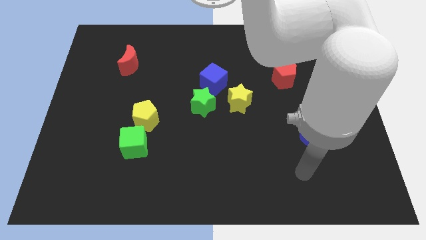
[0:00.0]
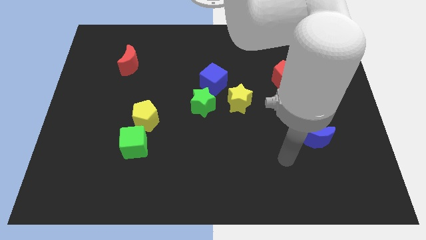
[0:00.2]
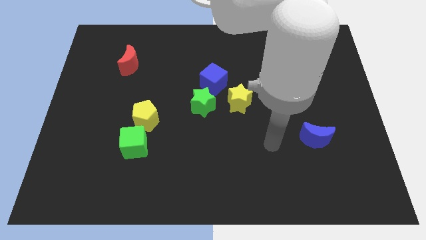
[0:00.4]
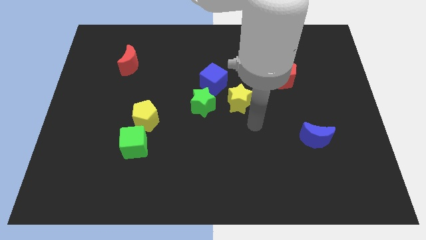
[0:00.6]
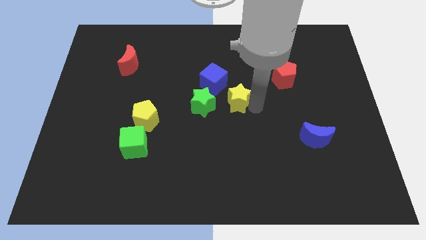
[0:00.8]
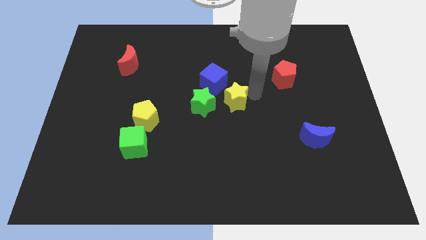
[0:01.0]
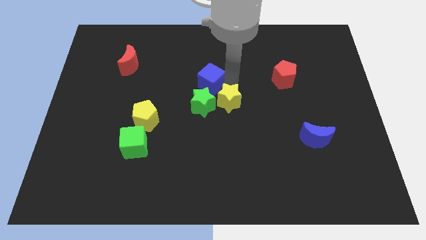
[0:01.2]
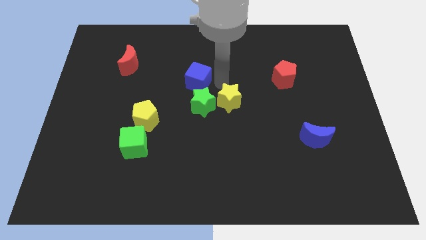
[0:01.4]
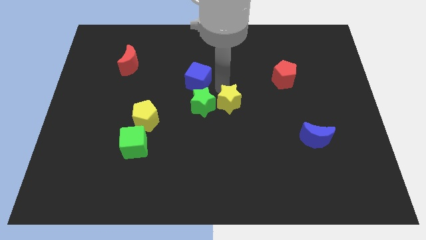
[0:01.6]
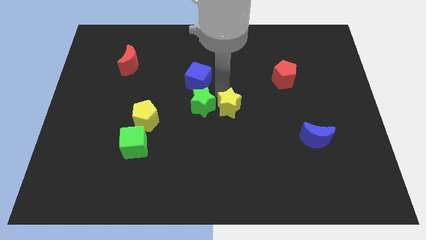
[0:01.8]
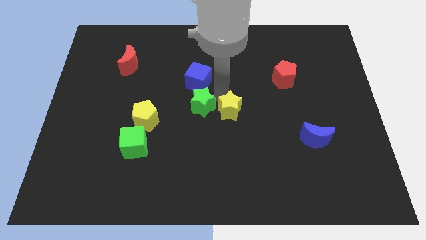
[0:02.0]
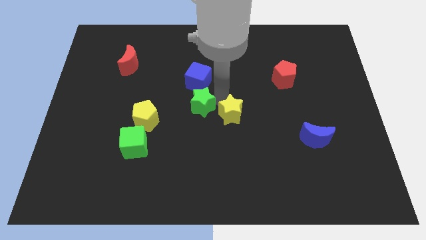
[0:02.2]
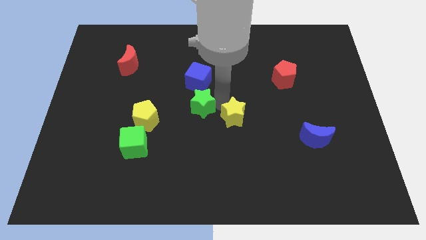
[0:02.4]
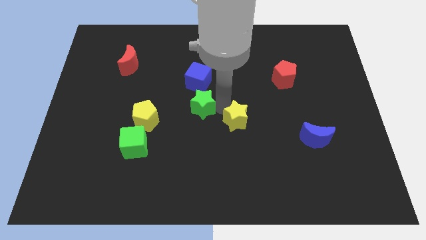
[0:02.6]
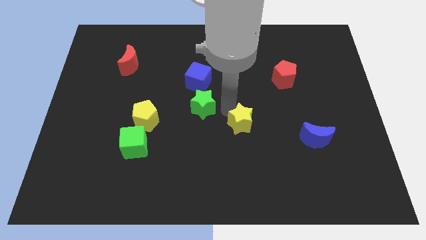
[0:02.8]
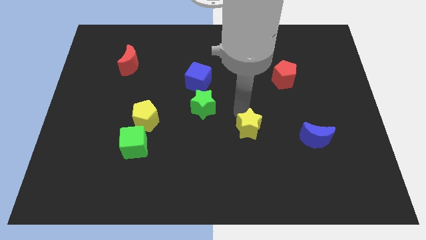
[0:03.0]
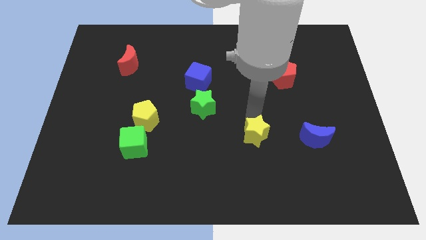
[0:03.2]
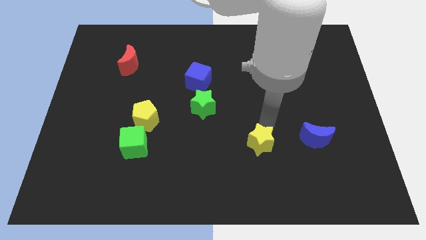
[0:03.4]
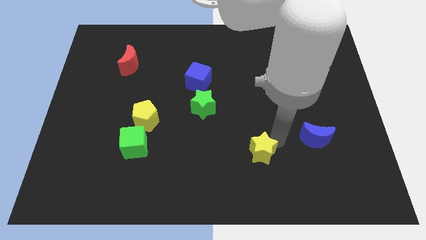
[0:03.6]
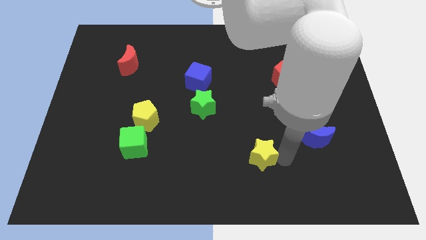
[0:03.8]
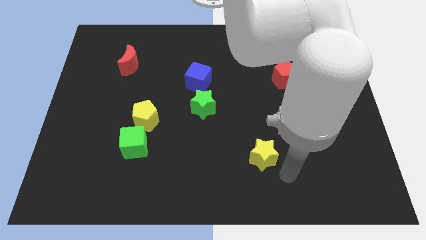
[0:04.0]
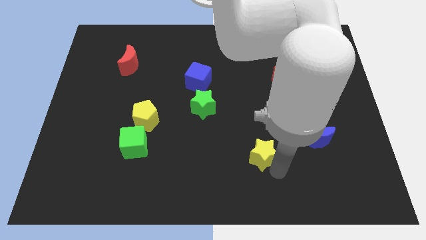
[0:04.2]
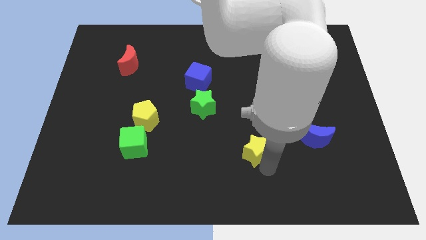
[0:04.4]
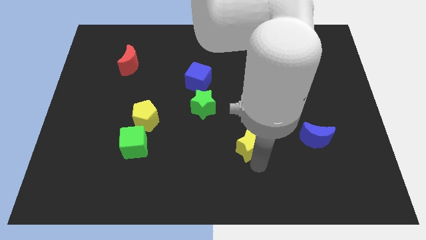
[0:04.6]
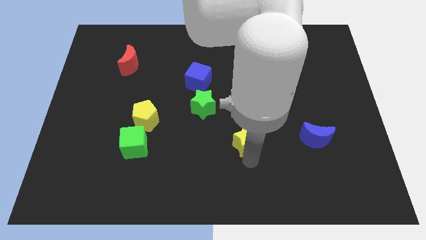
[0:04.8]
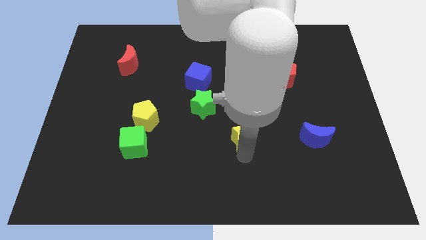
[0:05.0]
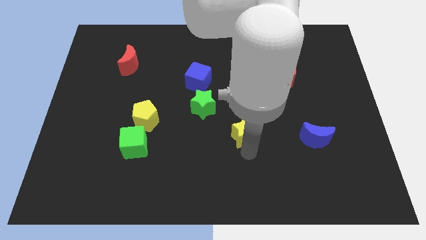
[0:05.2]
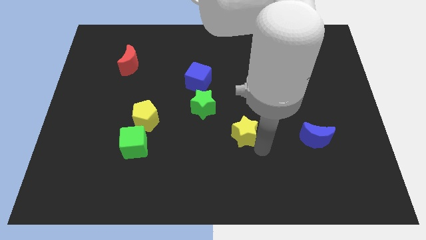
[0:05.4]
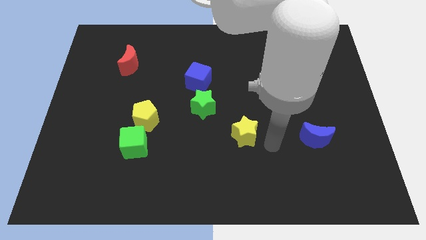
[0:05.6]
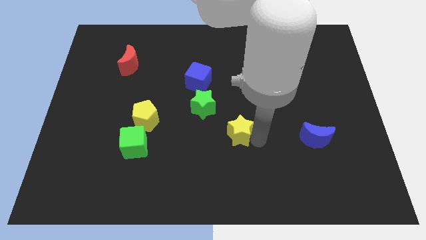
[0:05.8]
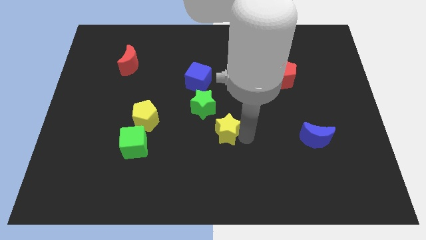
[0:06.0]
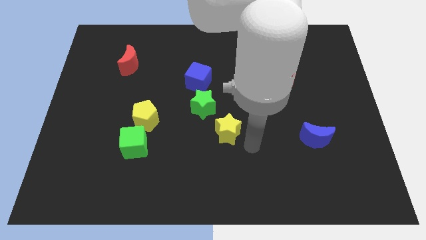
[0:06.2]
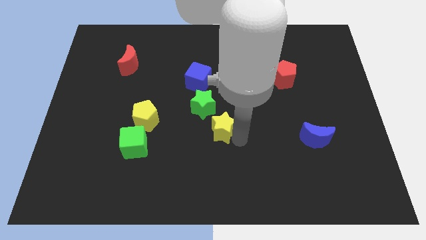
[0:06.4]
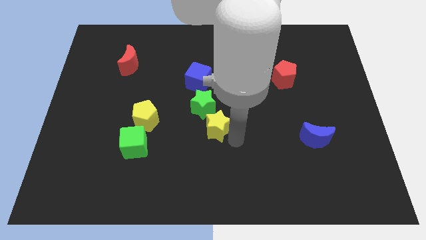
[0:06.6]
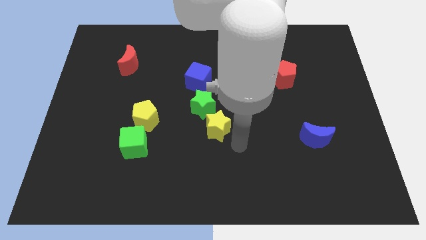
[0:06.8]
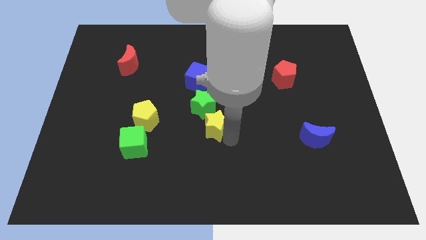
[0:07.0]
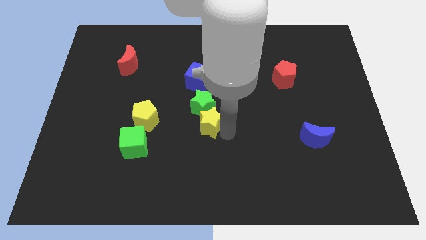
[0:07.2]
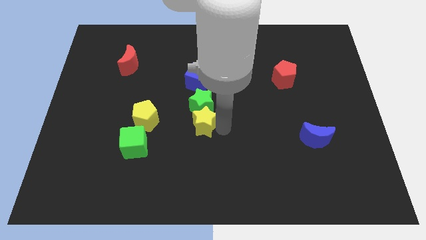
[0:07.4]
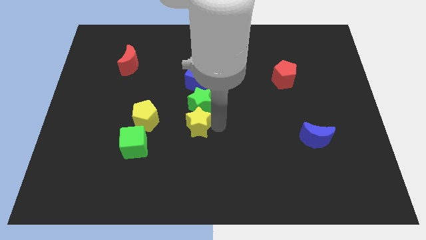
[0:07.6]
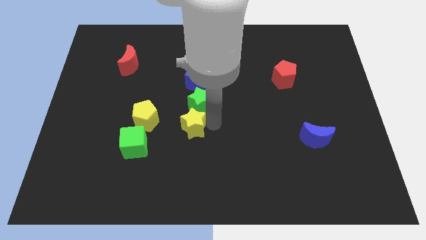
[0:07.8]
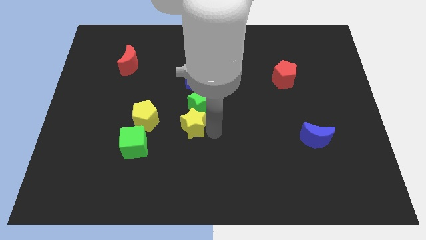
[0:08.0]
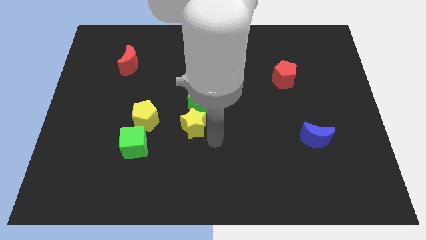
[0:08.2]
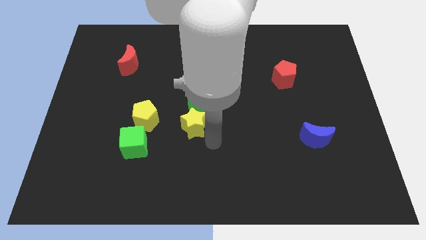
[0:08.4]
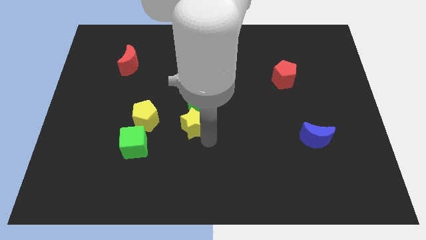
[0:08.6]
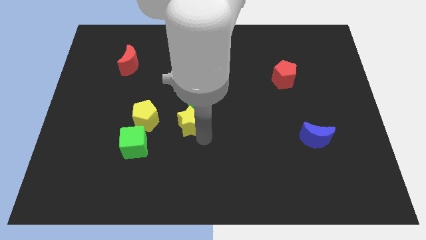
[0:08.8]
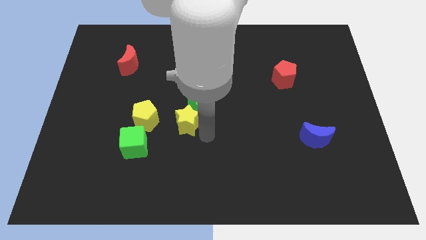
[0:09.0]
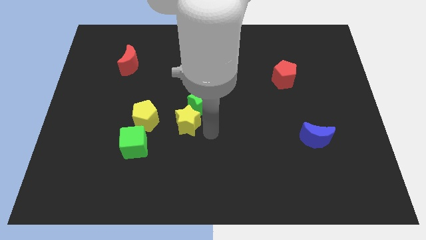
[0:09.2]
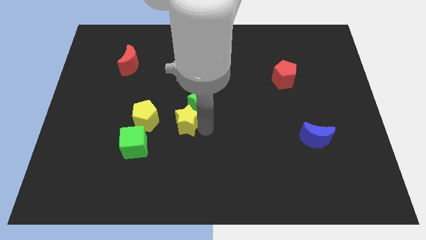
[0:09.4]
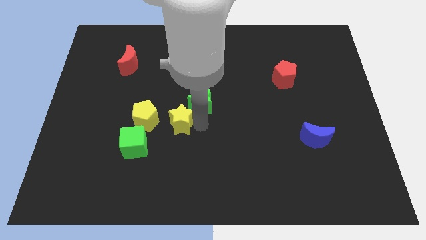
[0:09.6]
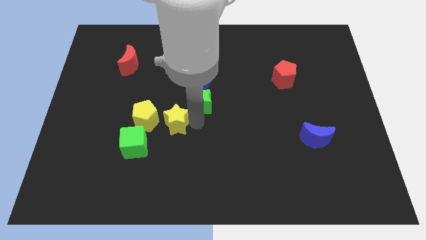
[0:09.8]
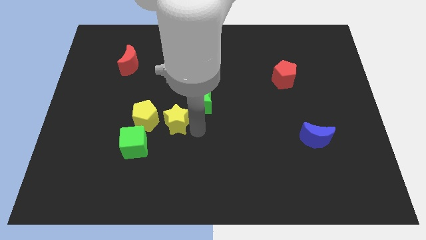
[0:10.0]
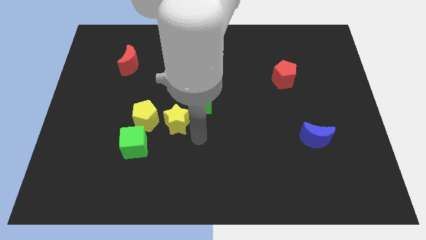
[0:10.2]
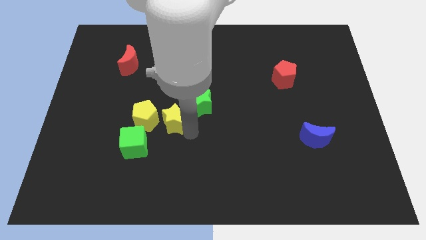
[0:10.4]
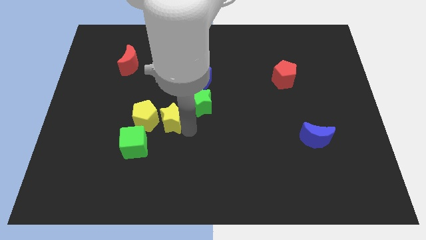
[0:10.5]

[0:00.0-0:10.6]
move the yellow star next to the yellow pentagon
